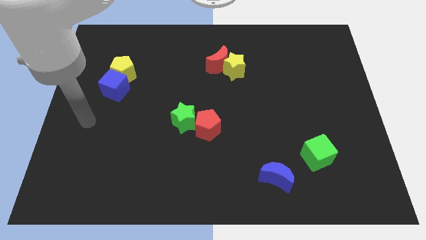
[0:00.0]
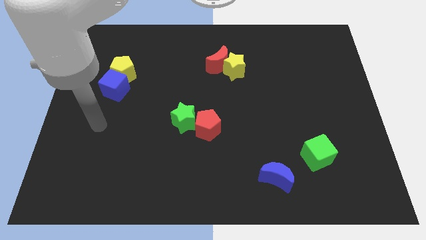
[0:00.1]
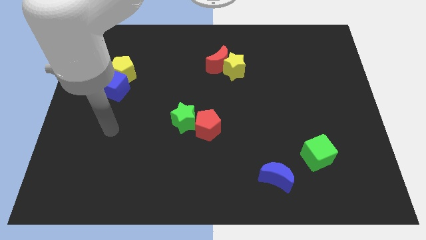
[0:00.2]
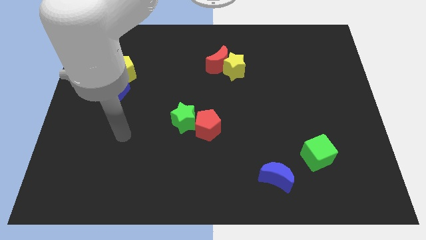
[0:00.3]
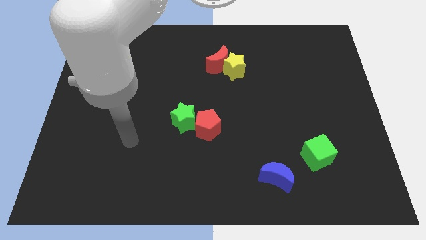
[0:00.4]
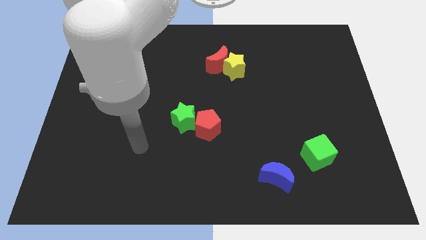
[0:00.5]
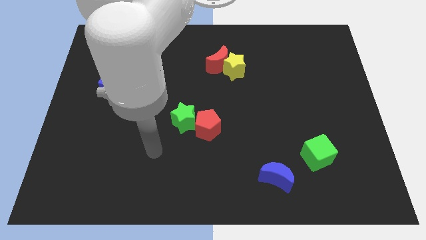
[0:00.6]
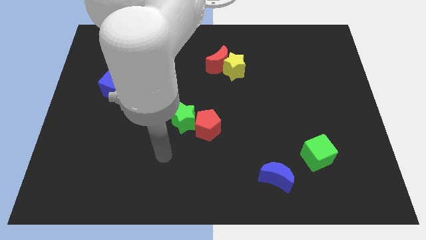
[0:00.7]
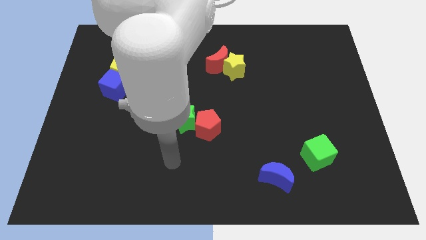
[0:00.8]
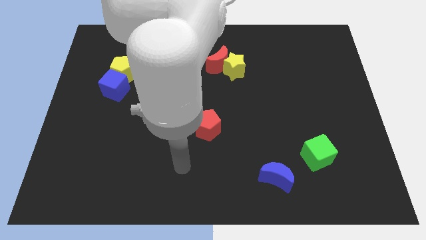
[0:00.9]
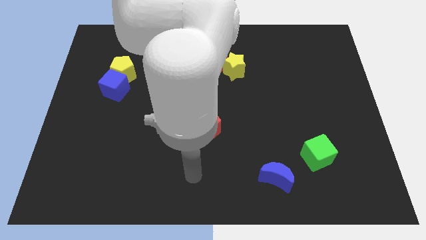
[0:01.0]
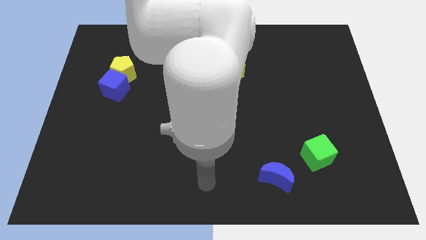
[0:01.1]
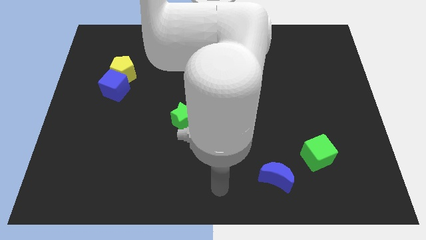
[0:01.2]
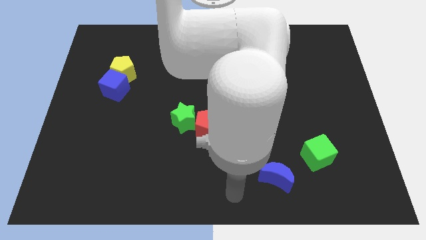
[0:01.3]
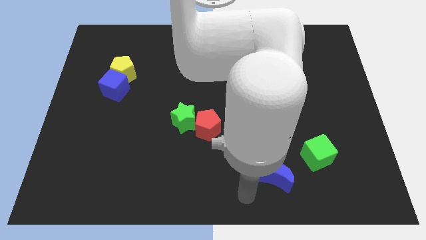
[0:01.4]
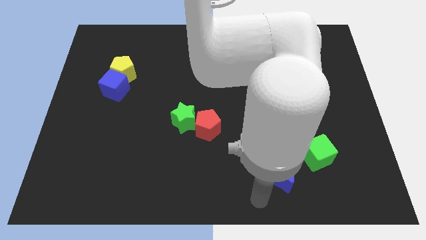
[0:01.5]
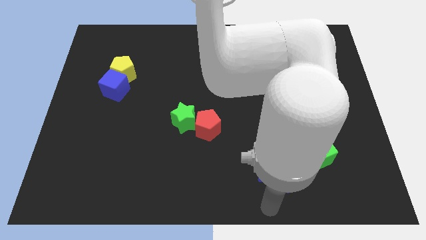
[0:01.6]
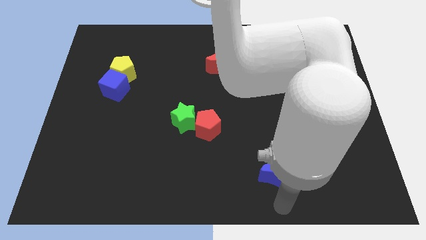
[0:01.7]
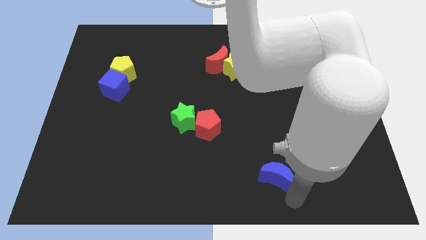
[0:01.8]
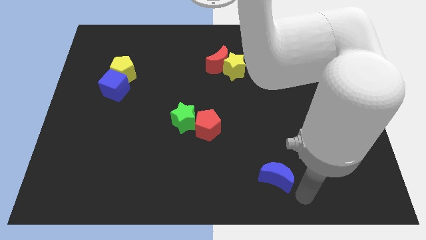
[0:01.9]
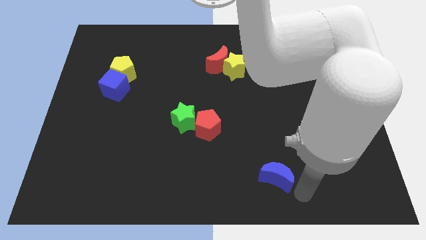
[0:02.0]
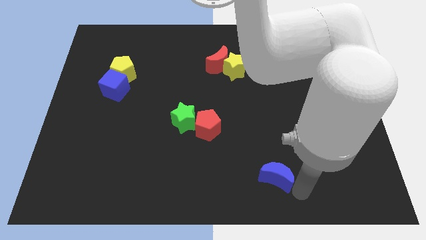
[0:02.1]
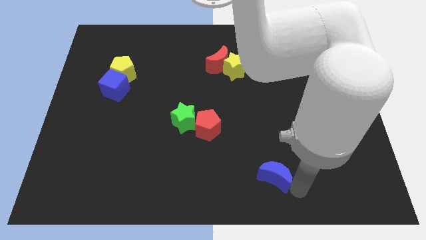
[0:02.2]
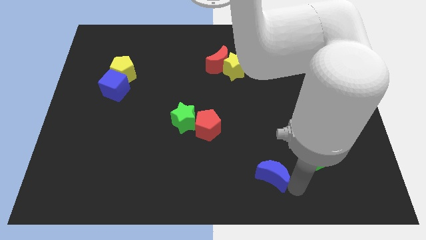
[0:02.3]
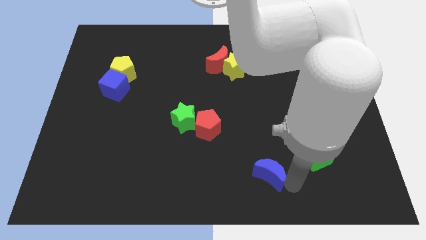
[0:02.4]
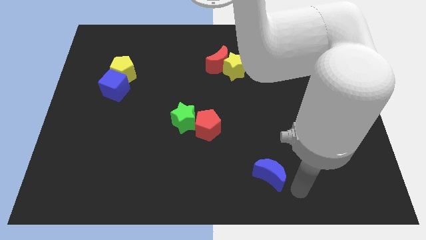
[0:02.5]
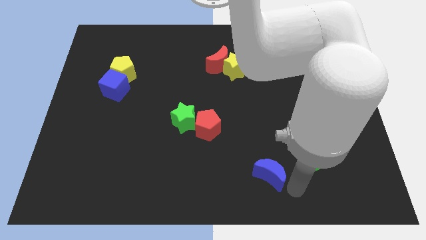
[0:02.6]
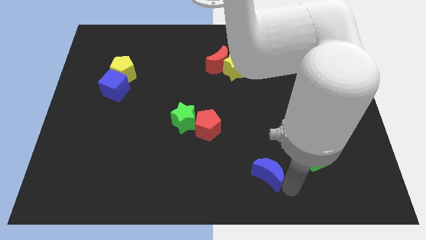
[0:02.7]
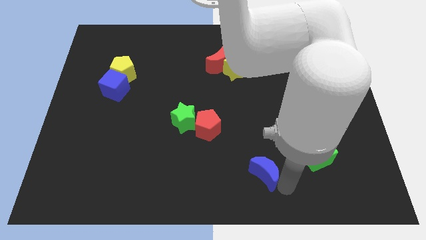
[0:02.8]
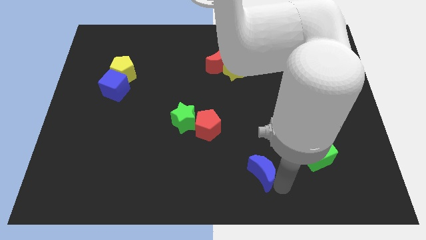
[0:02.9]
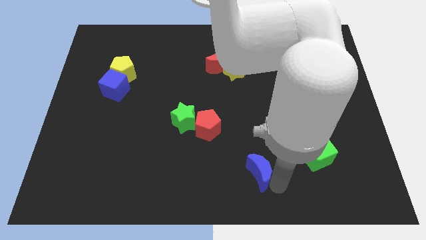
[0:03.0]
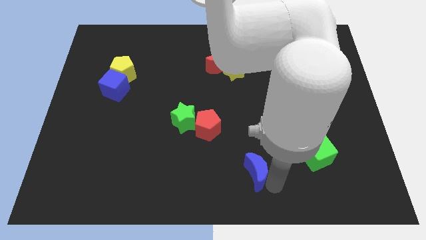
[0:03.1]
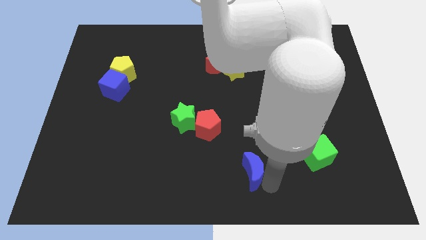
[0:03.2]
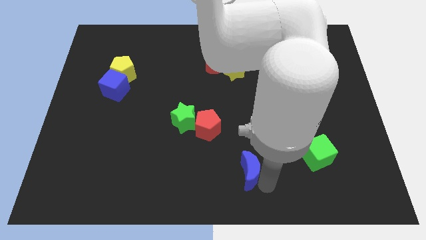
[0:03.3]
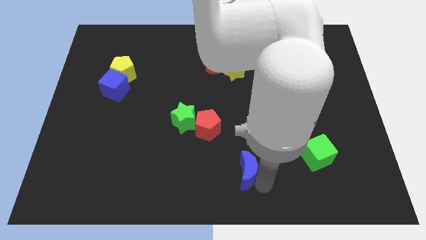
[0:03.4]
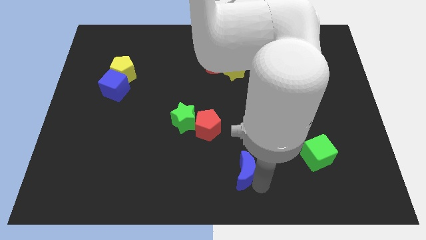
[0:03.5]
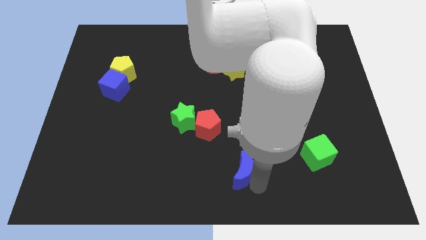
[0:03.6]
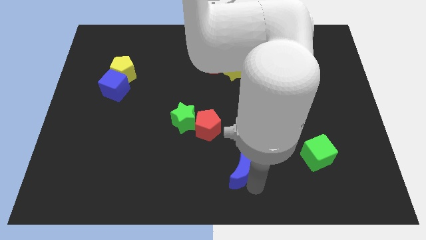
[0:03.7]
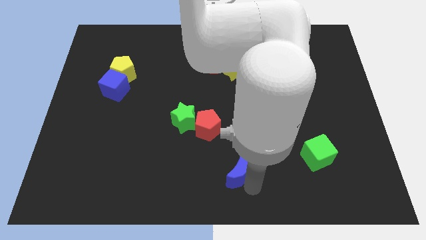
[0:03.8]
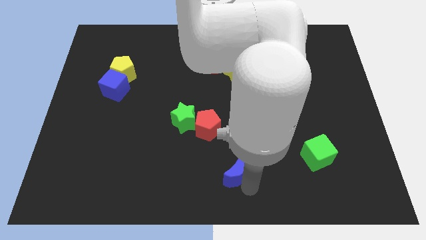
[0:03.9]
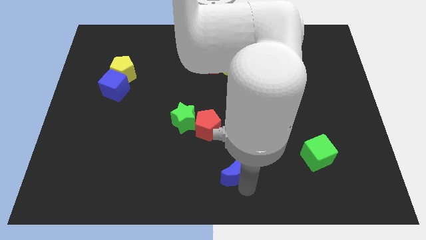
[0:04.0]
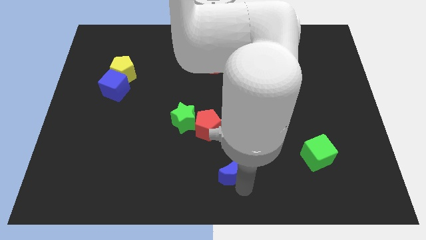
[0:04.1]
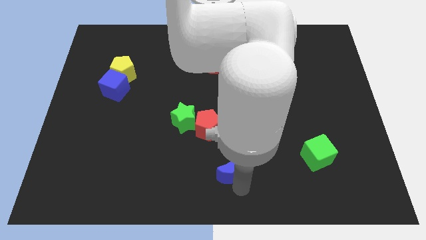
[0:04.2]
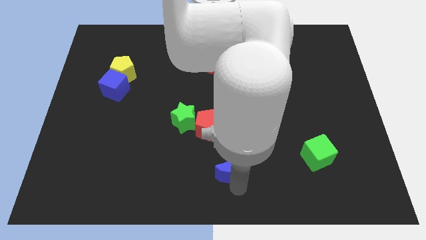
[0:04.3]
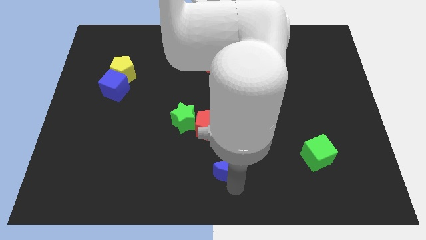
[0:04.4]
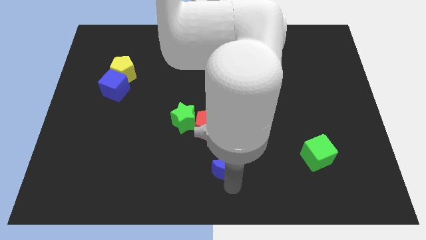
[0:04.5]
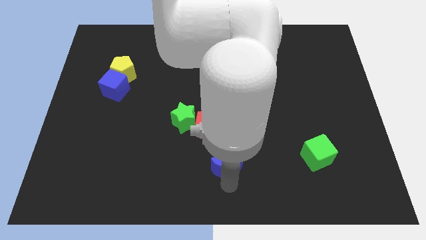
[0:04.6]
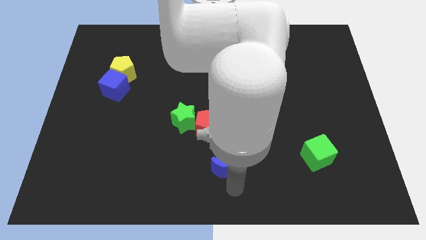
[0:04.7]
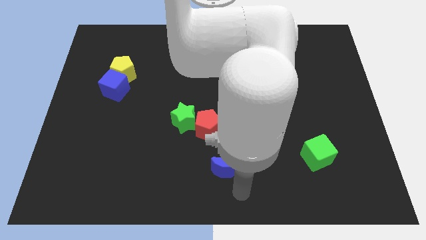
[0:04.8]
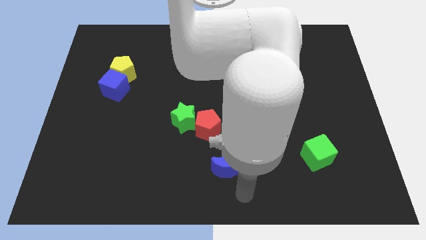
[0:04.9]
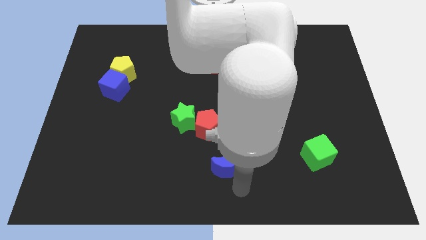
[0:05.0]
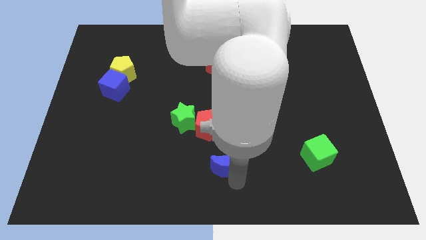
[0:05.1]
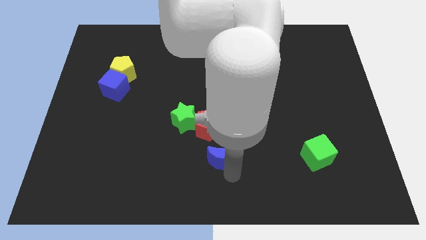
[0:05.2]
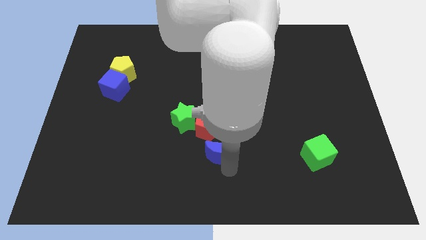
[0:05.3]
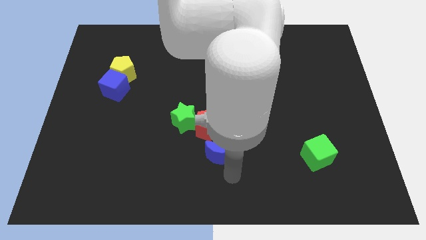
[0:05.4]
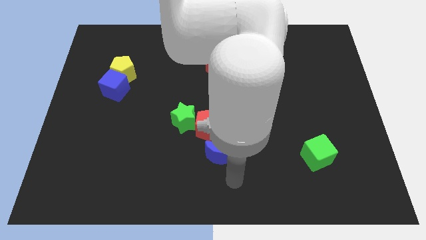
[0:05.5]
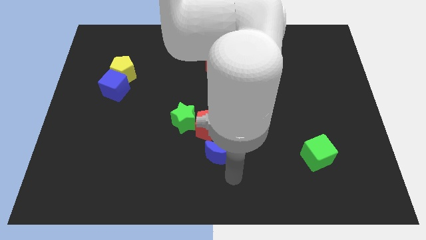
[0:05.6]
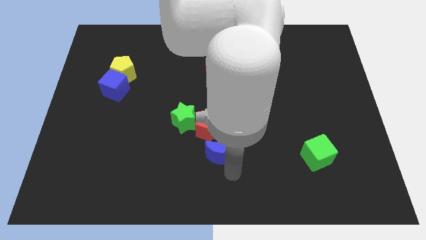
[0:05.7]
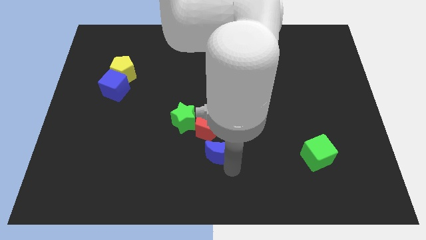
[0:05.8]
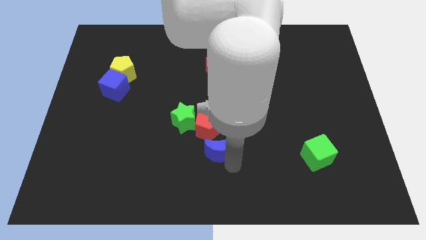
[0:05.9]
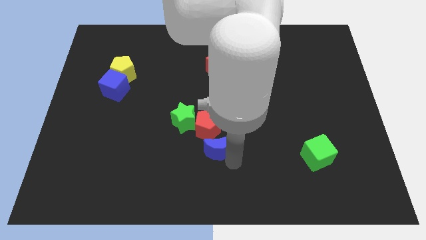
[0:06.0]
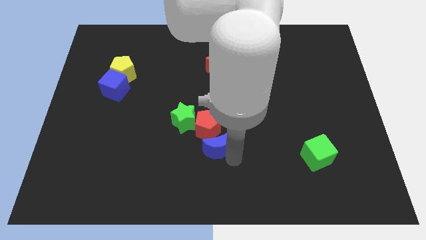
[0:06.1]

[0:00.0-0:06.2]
push the blue moon to the red pentagon

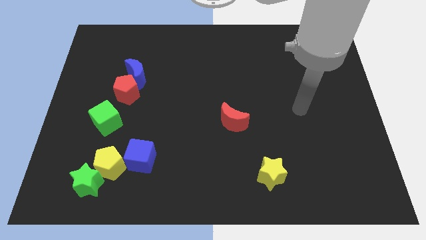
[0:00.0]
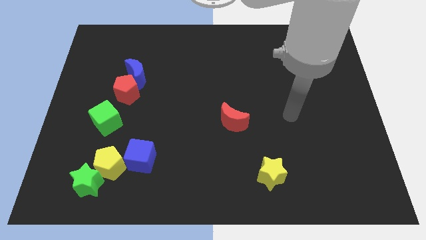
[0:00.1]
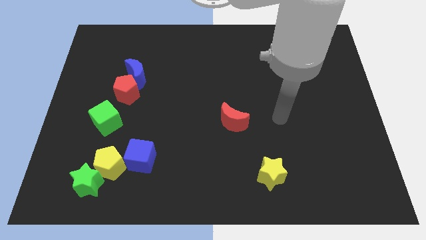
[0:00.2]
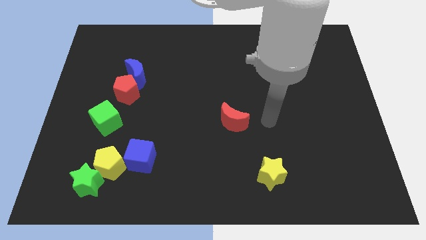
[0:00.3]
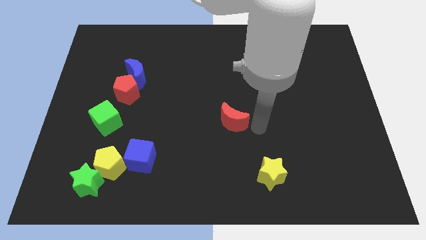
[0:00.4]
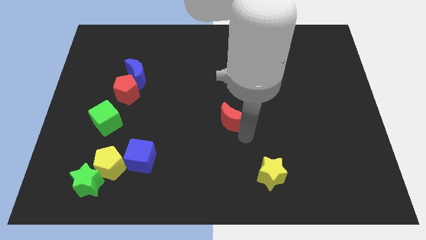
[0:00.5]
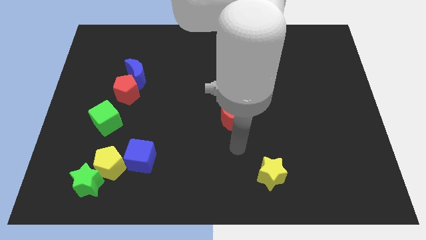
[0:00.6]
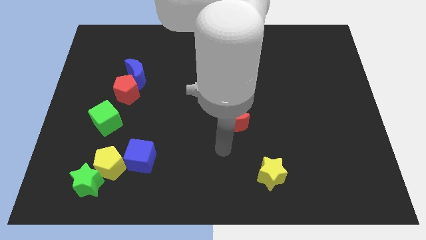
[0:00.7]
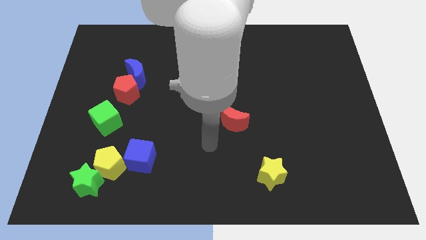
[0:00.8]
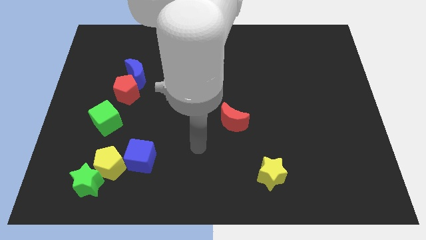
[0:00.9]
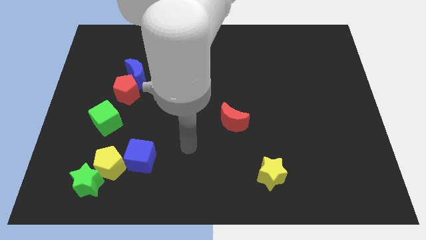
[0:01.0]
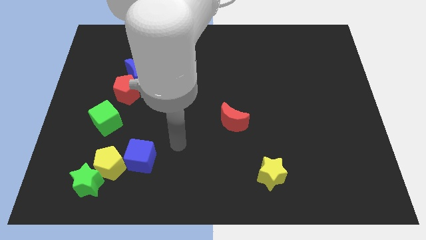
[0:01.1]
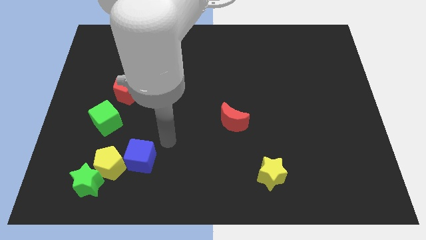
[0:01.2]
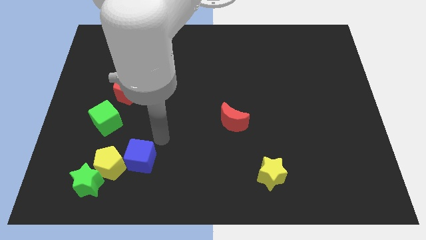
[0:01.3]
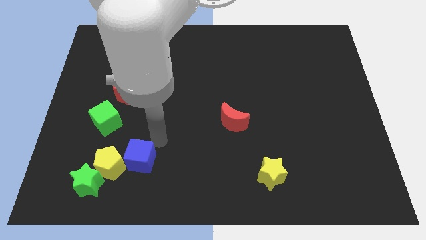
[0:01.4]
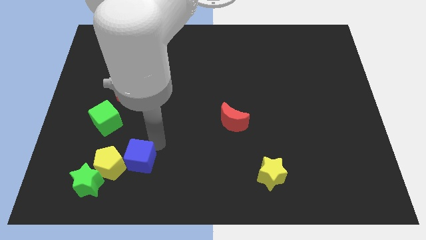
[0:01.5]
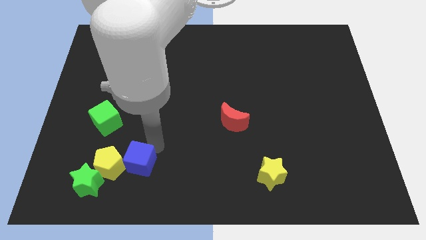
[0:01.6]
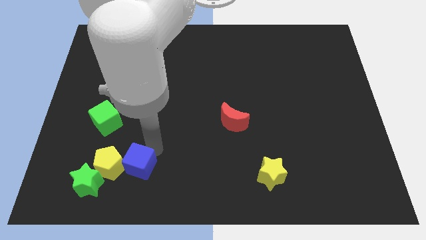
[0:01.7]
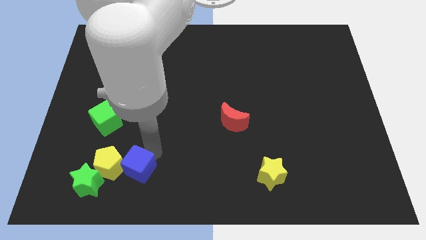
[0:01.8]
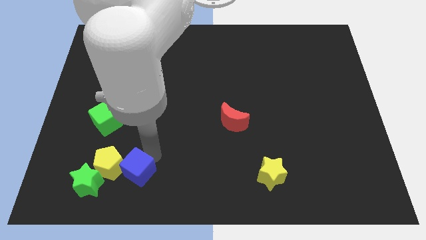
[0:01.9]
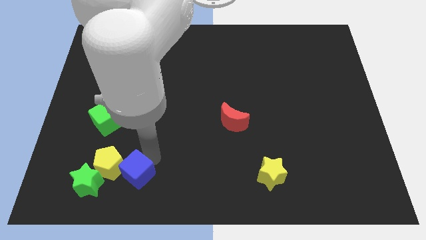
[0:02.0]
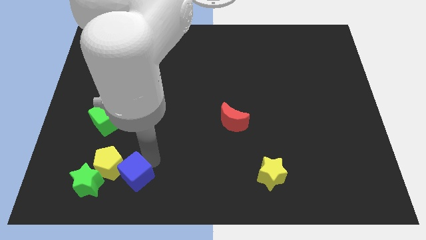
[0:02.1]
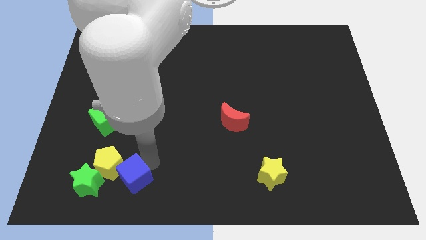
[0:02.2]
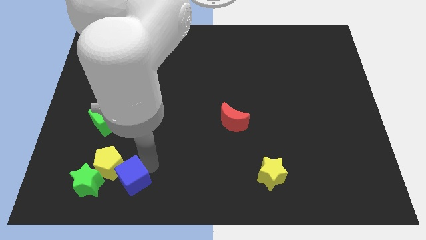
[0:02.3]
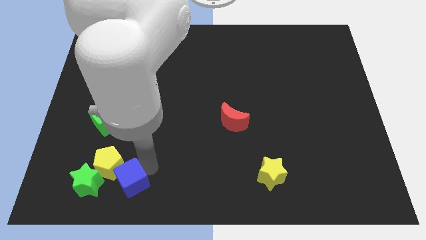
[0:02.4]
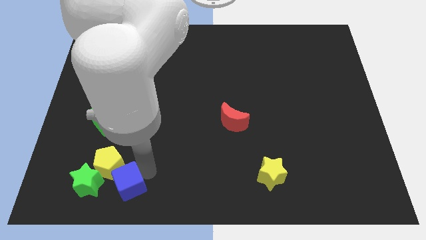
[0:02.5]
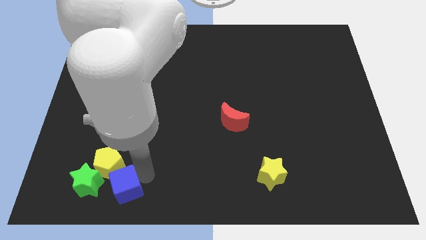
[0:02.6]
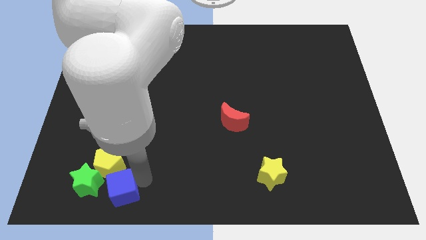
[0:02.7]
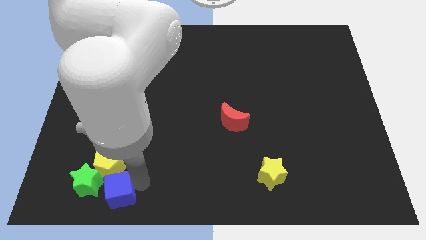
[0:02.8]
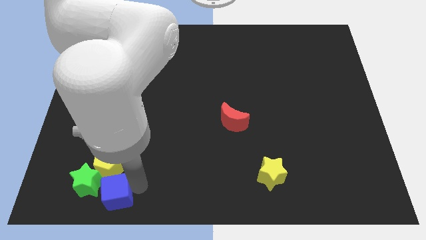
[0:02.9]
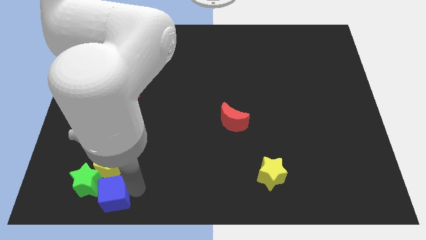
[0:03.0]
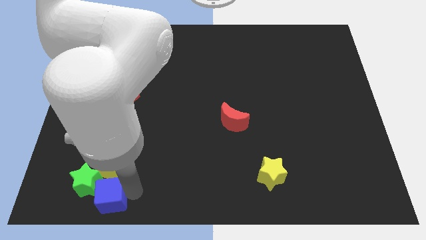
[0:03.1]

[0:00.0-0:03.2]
slide the blue cube close to the green star
